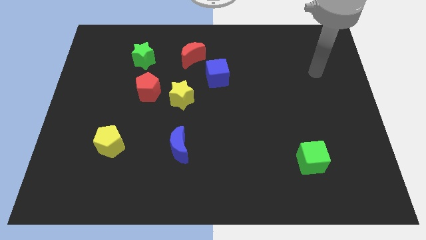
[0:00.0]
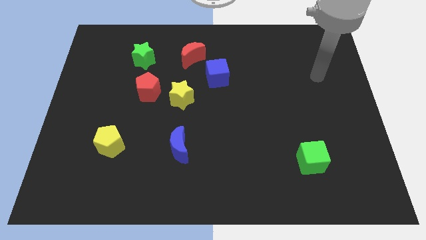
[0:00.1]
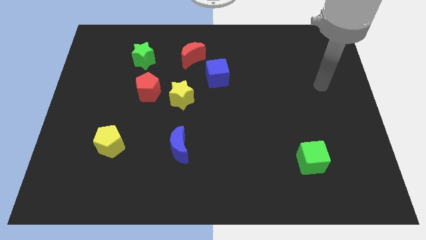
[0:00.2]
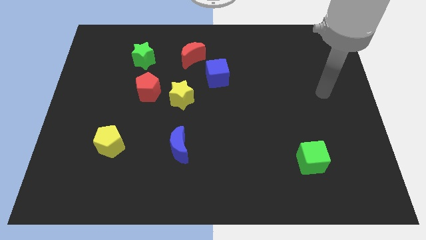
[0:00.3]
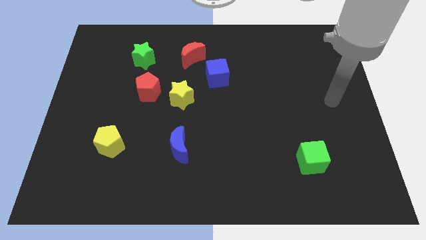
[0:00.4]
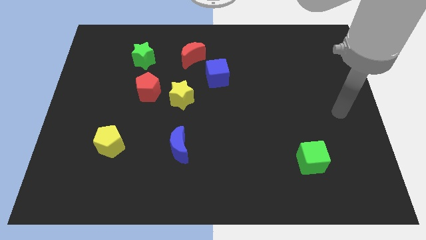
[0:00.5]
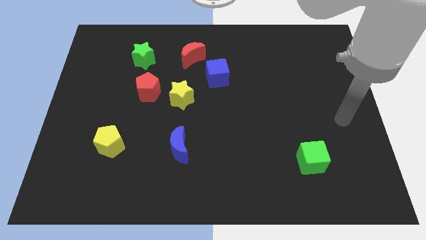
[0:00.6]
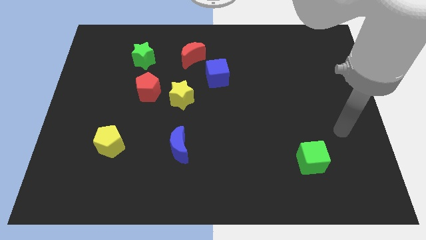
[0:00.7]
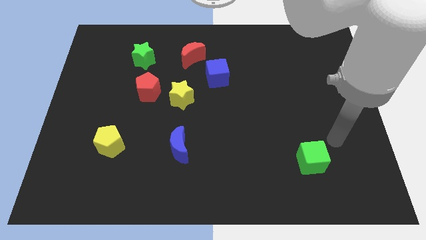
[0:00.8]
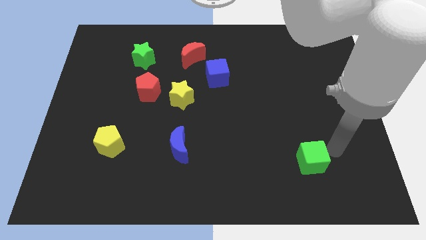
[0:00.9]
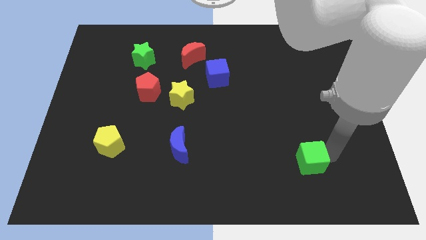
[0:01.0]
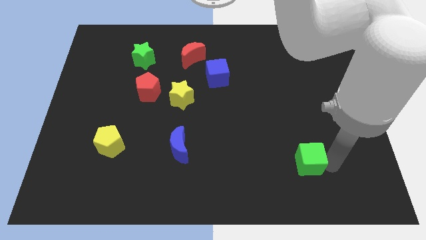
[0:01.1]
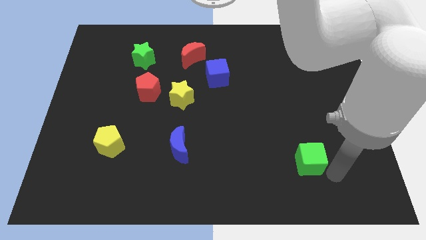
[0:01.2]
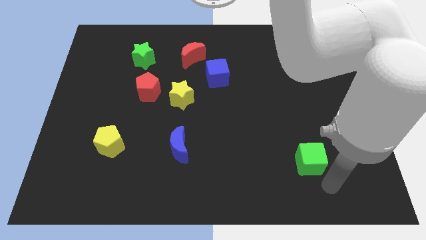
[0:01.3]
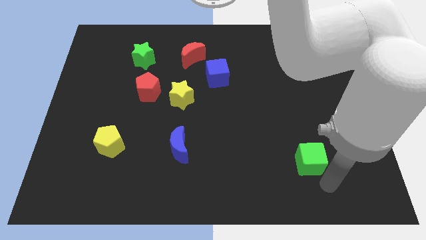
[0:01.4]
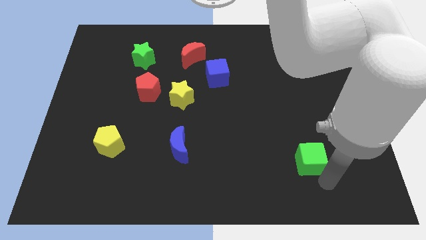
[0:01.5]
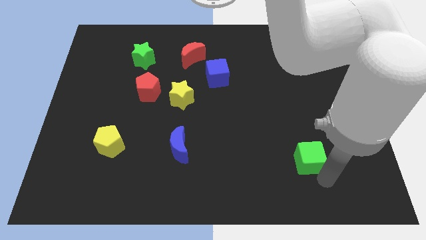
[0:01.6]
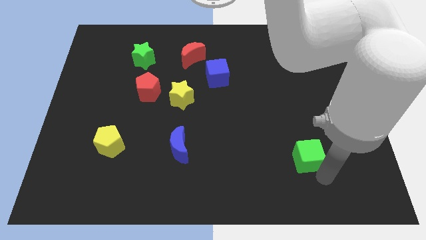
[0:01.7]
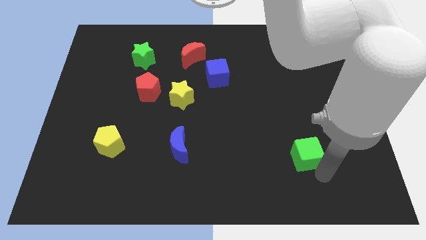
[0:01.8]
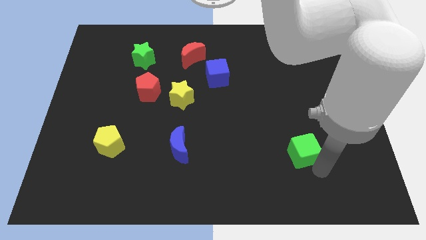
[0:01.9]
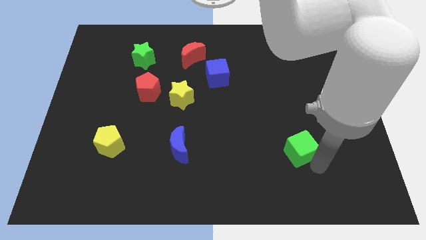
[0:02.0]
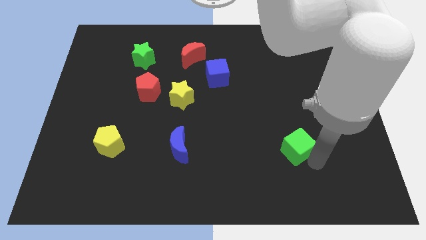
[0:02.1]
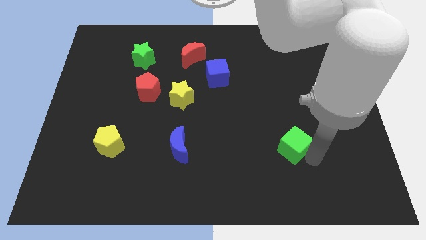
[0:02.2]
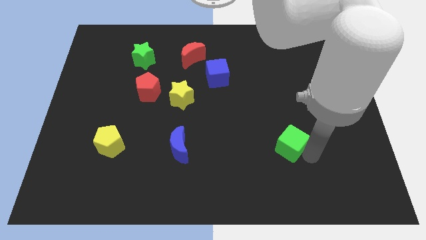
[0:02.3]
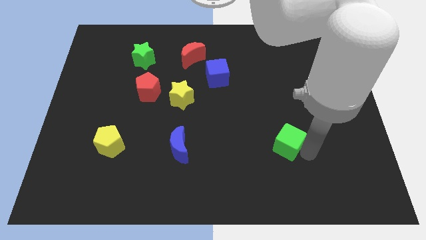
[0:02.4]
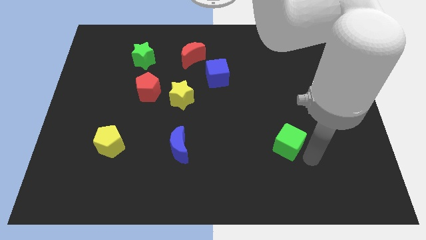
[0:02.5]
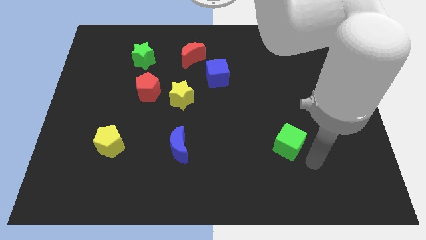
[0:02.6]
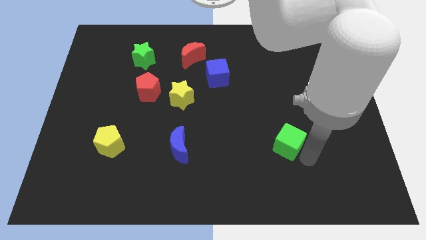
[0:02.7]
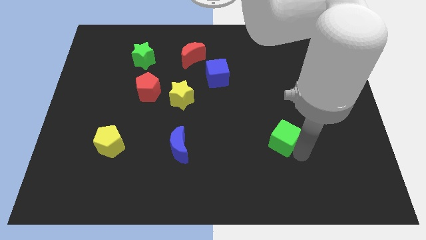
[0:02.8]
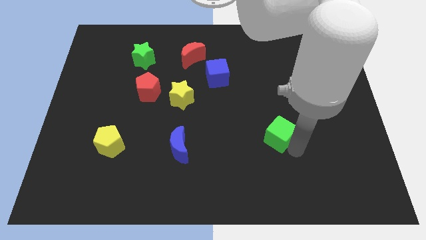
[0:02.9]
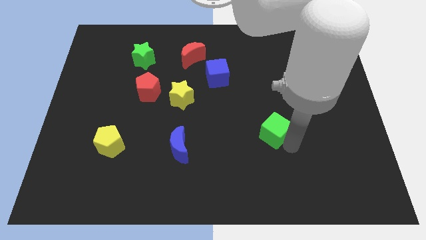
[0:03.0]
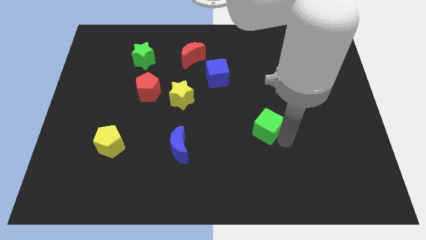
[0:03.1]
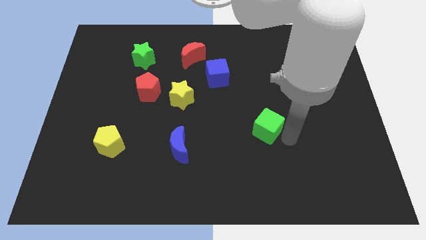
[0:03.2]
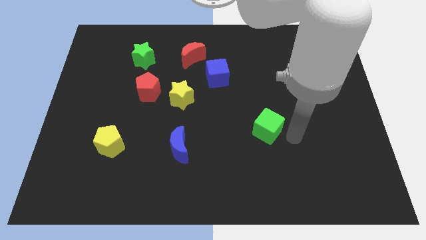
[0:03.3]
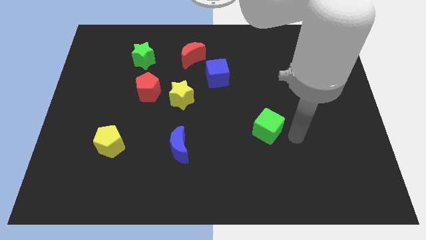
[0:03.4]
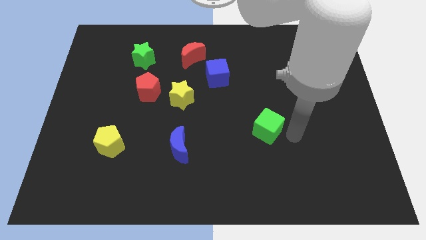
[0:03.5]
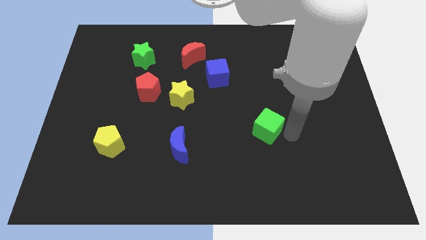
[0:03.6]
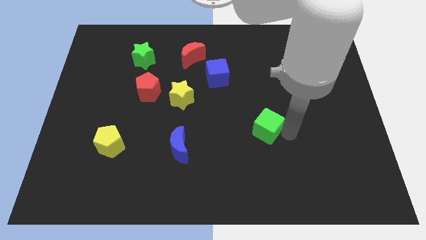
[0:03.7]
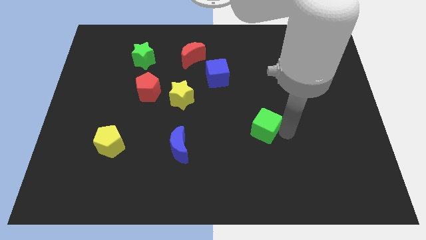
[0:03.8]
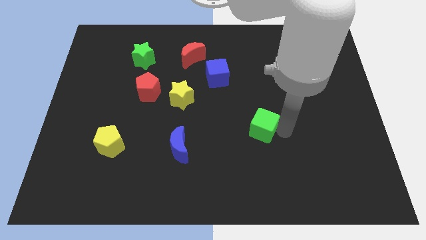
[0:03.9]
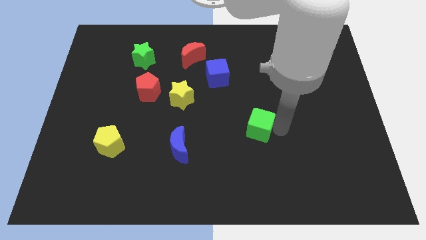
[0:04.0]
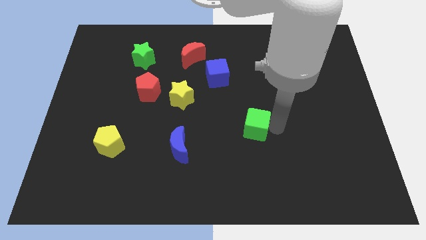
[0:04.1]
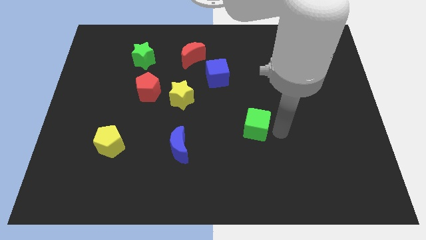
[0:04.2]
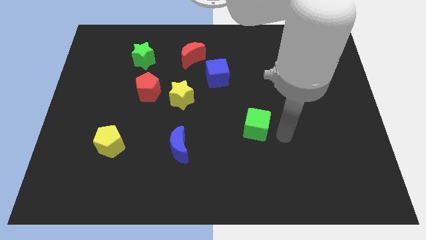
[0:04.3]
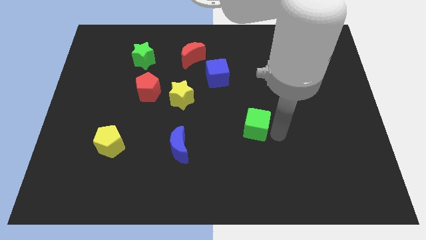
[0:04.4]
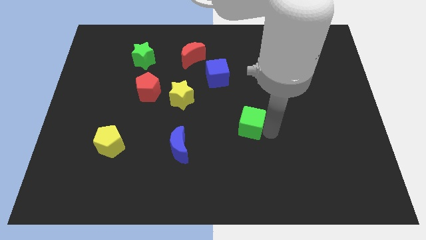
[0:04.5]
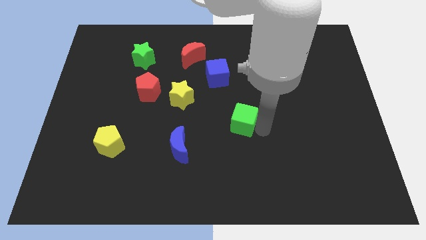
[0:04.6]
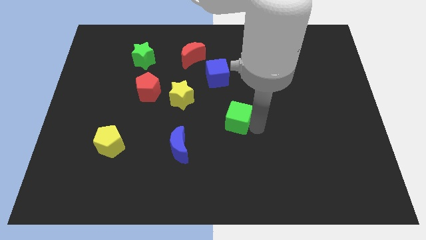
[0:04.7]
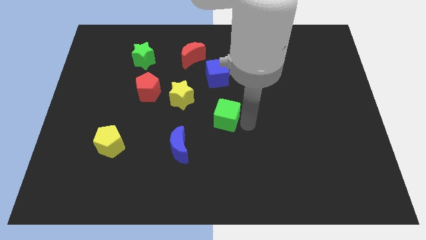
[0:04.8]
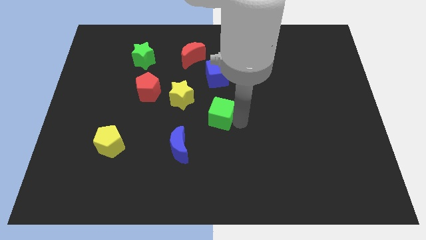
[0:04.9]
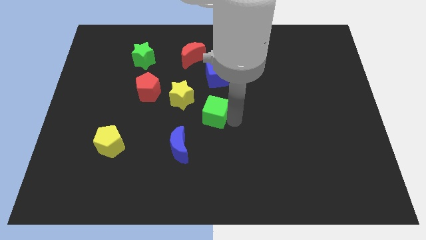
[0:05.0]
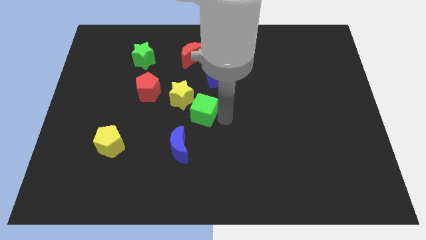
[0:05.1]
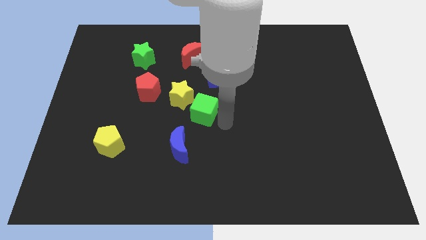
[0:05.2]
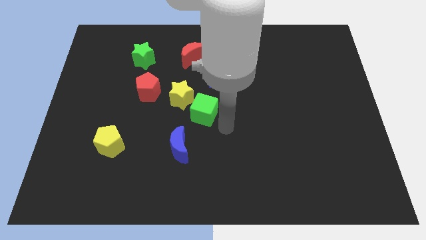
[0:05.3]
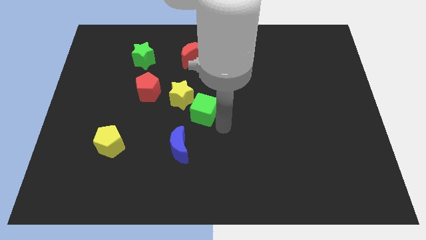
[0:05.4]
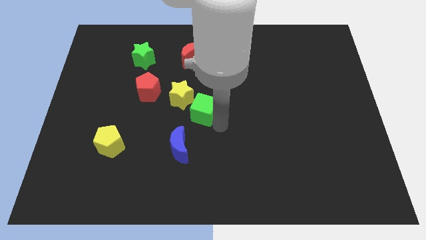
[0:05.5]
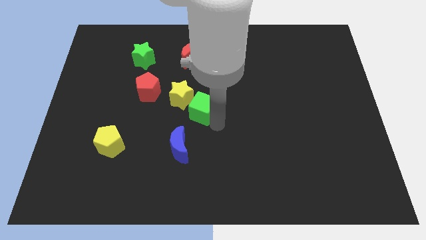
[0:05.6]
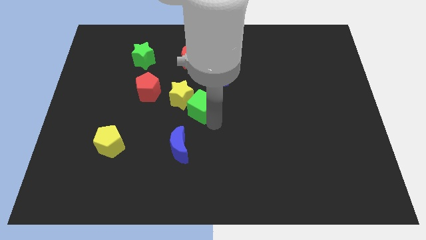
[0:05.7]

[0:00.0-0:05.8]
push the green cube close to the yellow star
